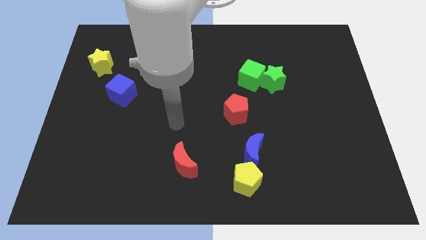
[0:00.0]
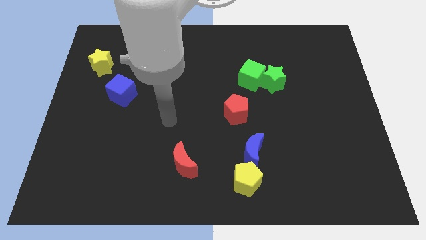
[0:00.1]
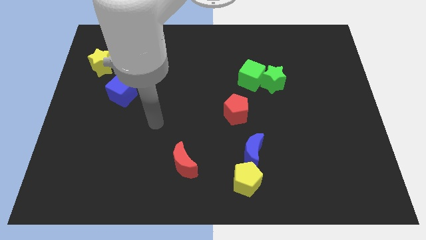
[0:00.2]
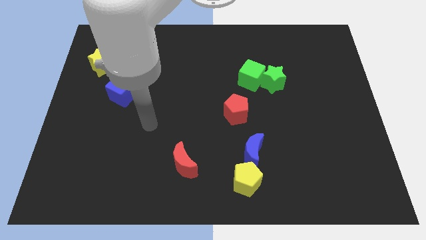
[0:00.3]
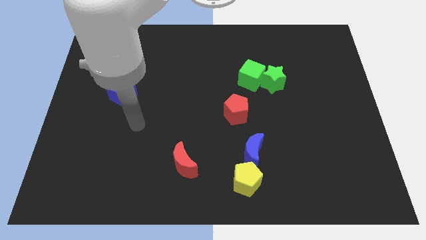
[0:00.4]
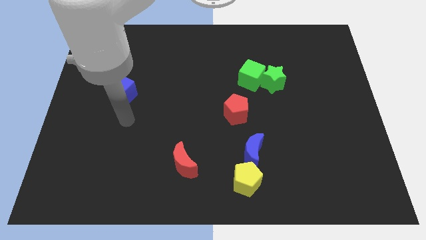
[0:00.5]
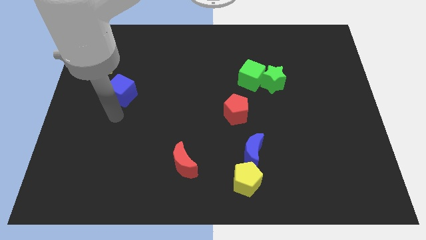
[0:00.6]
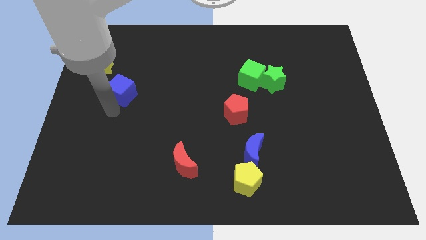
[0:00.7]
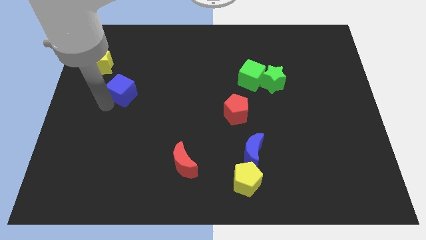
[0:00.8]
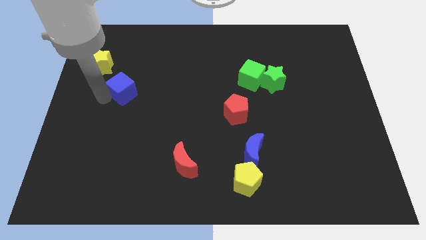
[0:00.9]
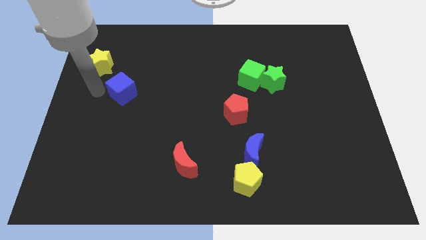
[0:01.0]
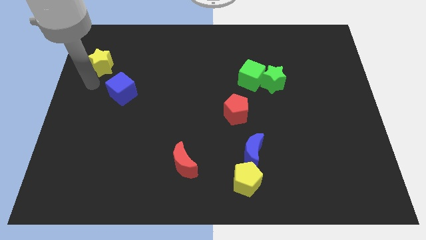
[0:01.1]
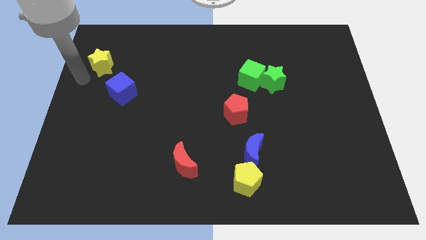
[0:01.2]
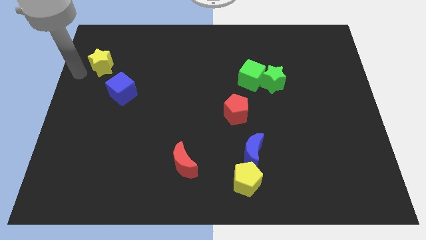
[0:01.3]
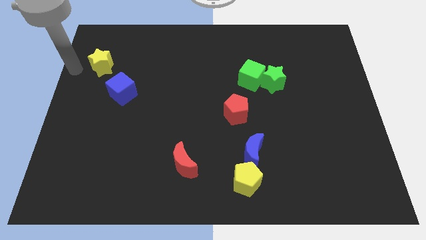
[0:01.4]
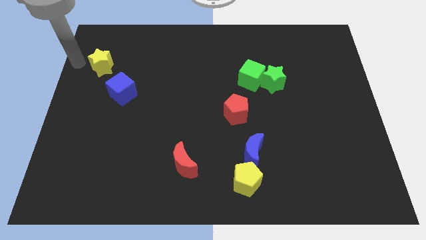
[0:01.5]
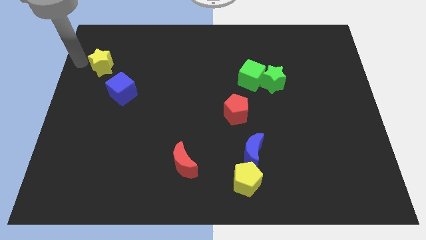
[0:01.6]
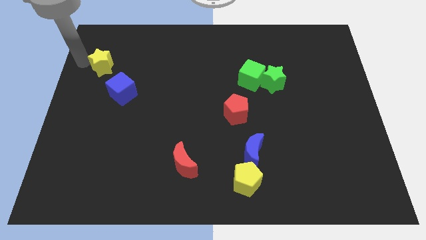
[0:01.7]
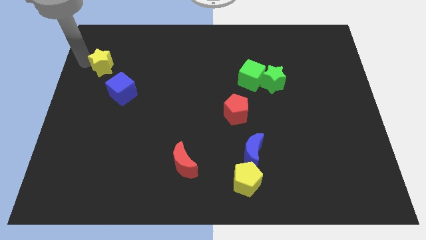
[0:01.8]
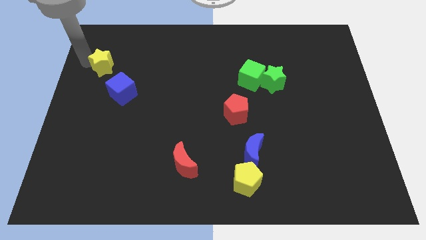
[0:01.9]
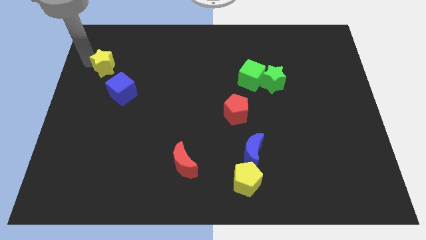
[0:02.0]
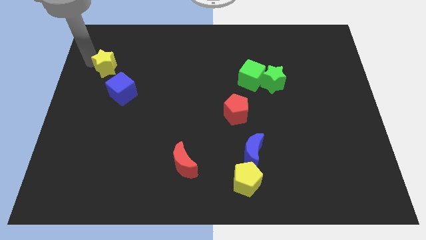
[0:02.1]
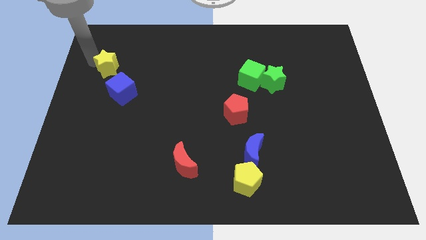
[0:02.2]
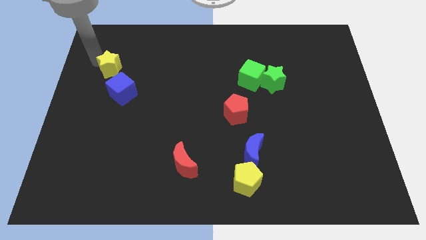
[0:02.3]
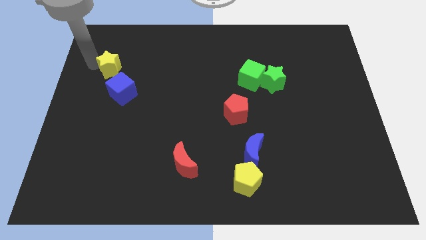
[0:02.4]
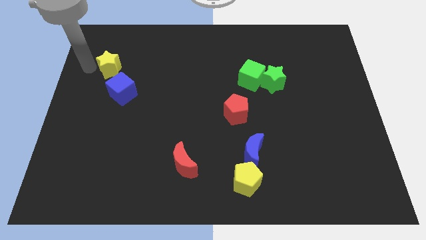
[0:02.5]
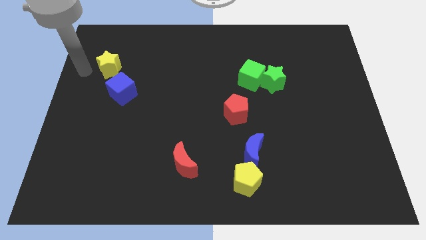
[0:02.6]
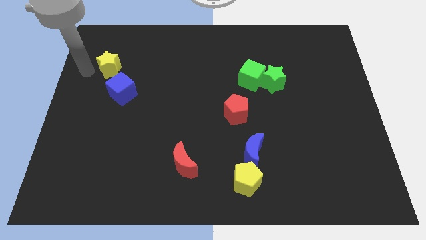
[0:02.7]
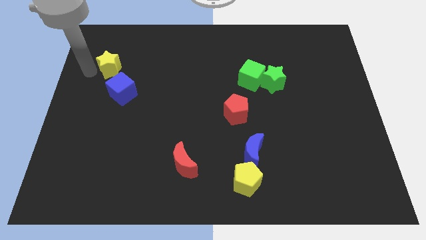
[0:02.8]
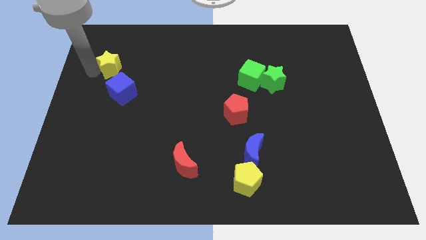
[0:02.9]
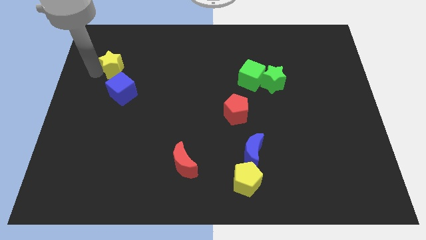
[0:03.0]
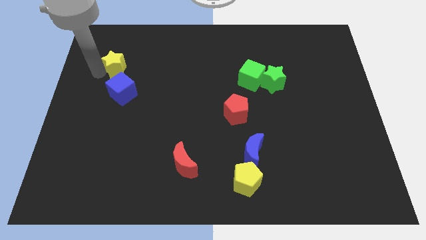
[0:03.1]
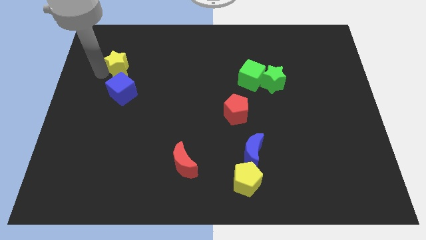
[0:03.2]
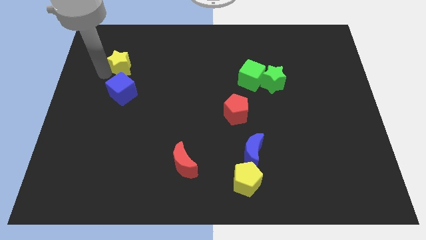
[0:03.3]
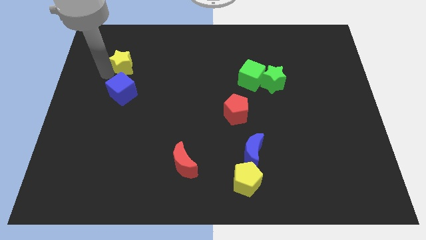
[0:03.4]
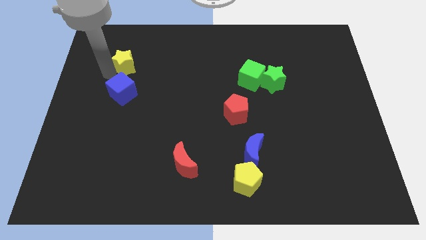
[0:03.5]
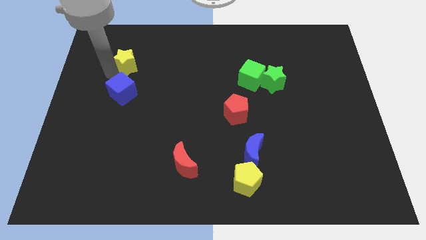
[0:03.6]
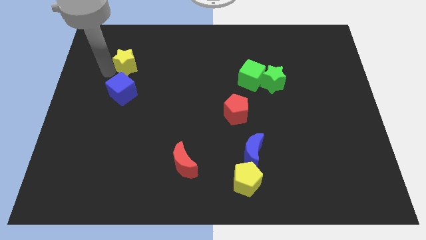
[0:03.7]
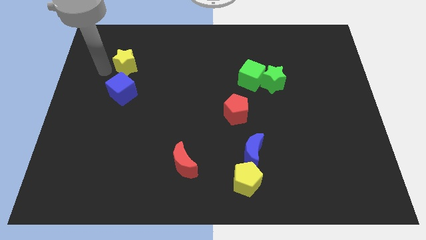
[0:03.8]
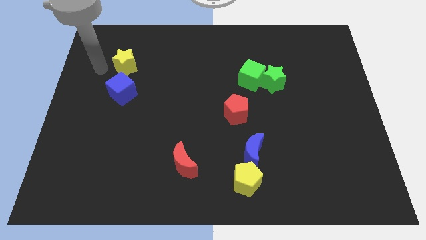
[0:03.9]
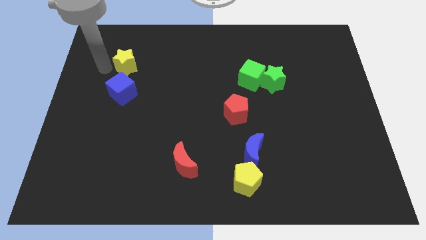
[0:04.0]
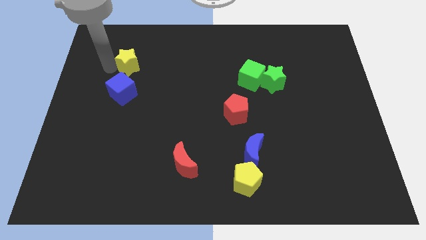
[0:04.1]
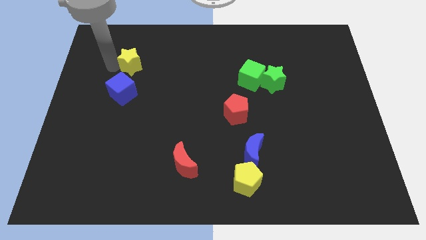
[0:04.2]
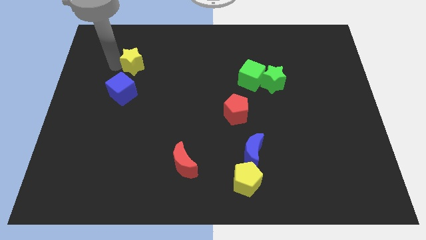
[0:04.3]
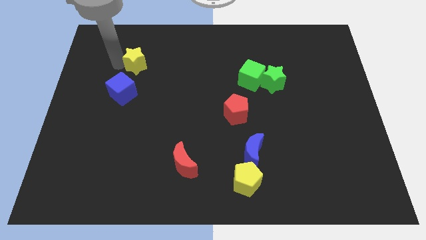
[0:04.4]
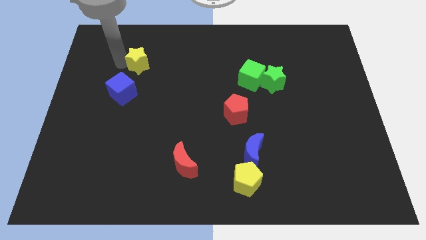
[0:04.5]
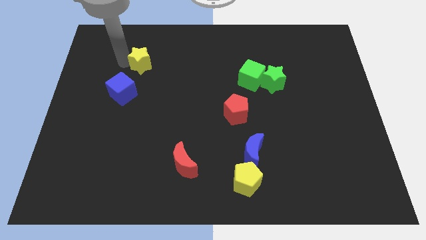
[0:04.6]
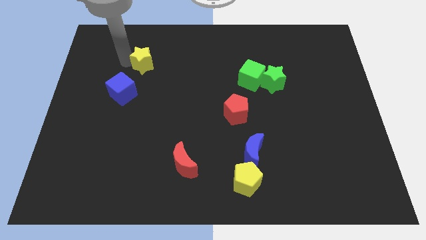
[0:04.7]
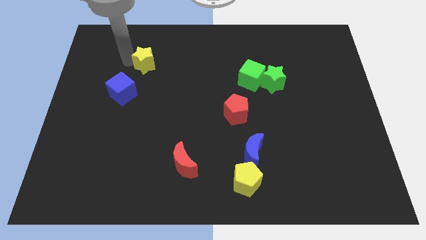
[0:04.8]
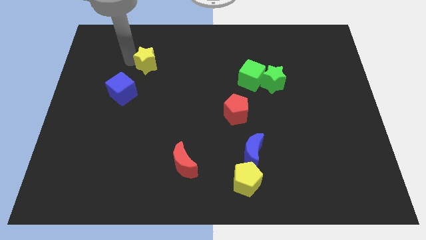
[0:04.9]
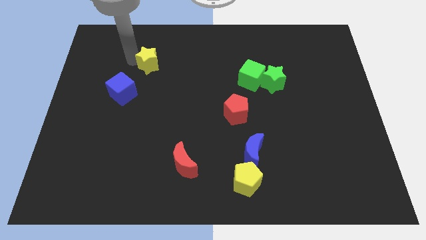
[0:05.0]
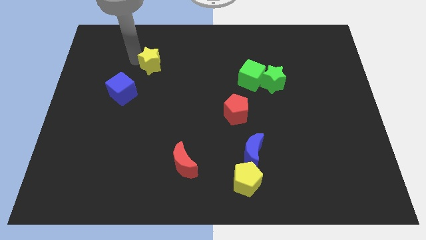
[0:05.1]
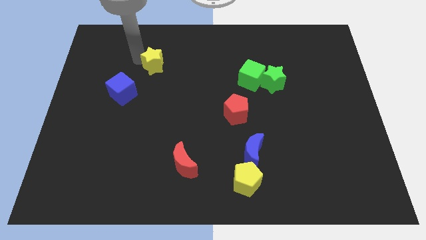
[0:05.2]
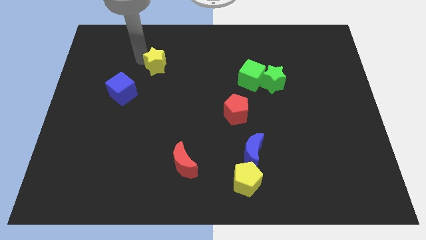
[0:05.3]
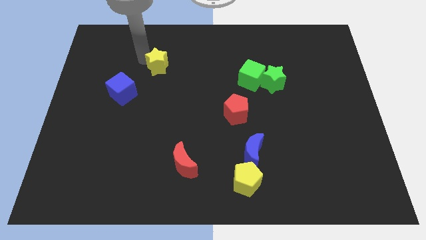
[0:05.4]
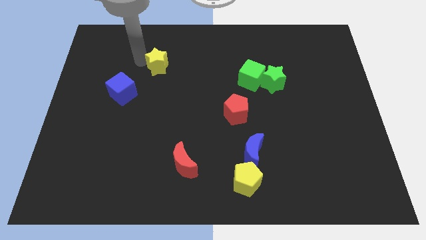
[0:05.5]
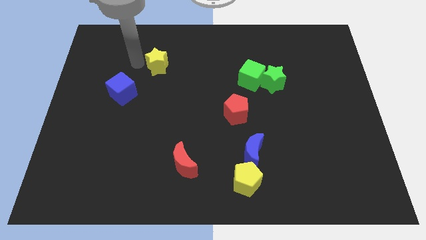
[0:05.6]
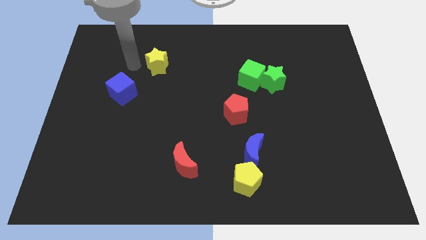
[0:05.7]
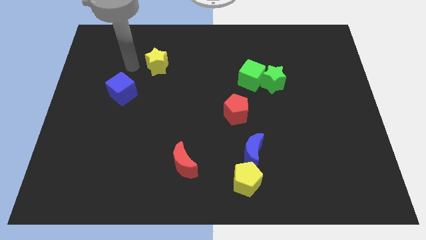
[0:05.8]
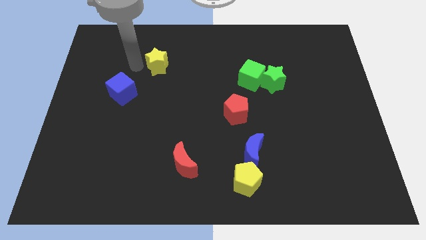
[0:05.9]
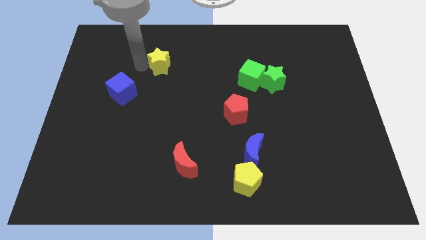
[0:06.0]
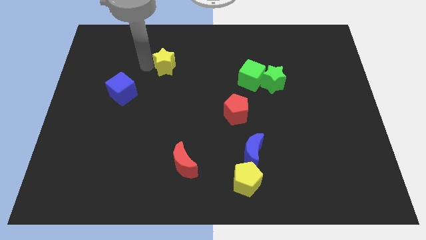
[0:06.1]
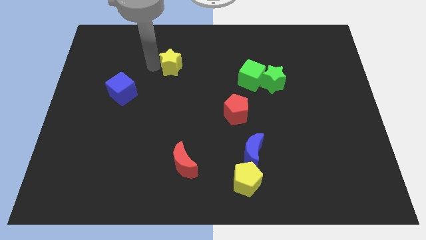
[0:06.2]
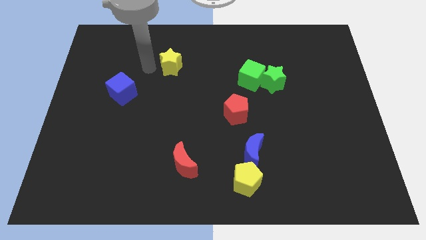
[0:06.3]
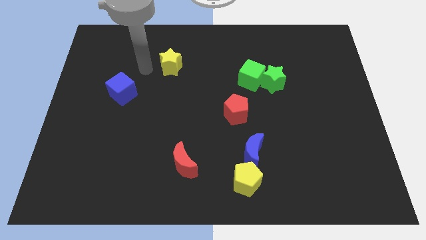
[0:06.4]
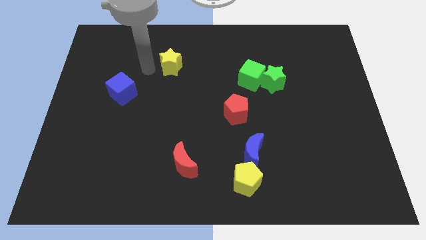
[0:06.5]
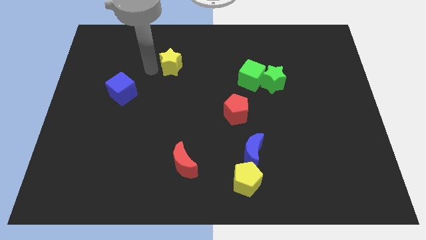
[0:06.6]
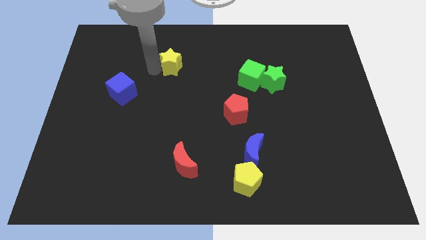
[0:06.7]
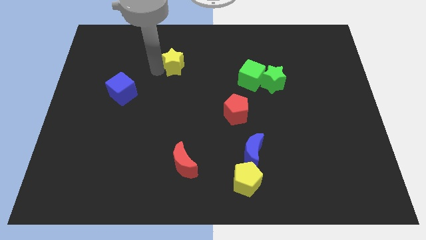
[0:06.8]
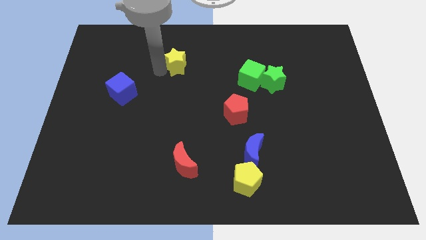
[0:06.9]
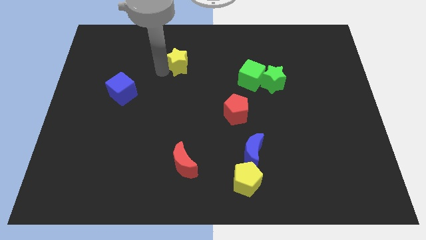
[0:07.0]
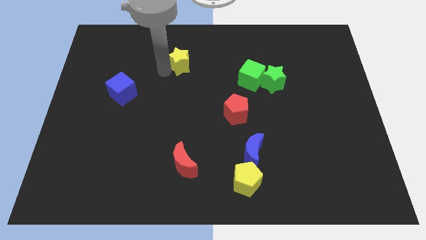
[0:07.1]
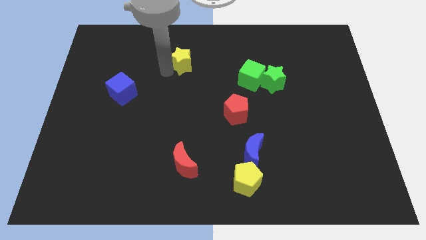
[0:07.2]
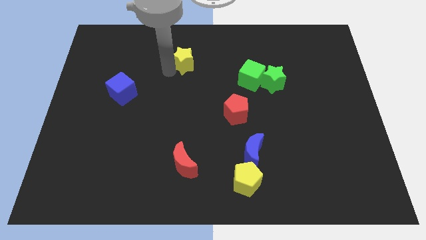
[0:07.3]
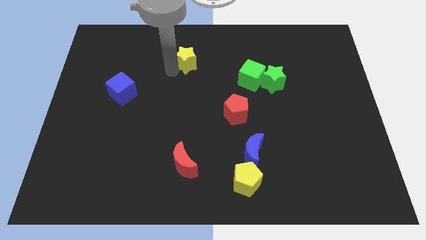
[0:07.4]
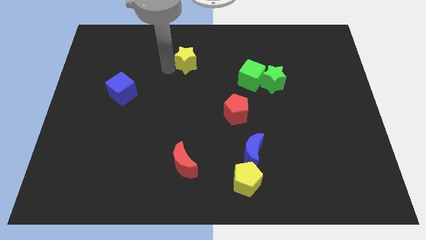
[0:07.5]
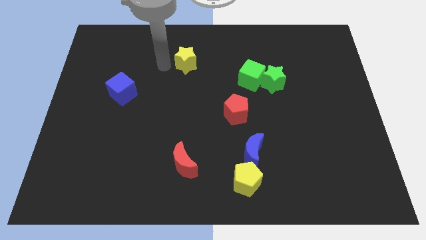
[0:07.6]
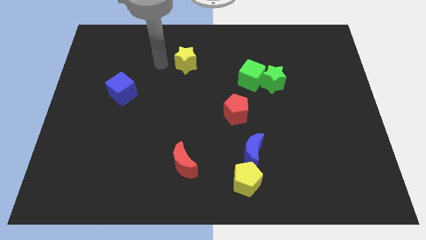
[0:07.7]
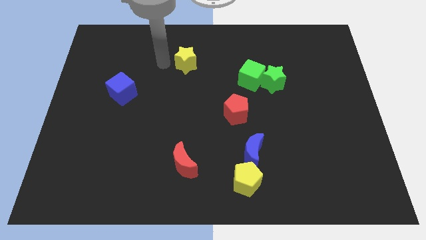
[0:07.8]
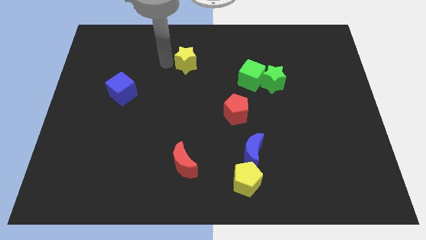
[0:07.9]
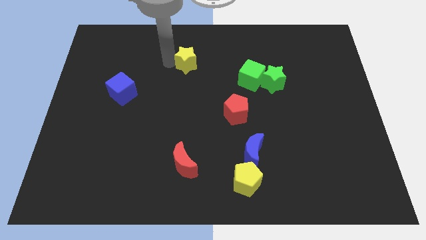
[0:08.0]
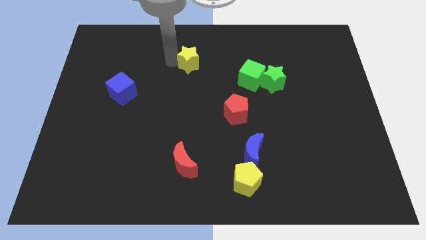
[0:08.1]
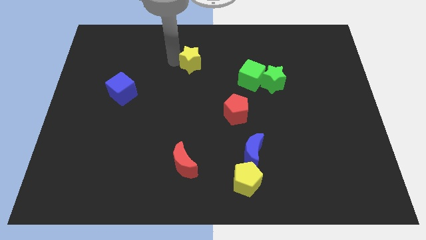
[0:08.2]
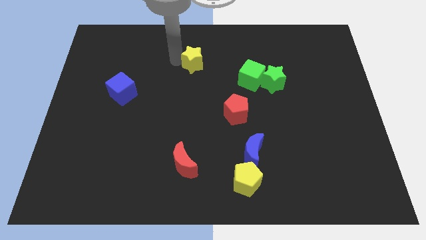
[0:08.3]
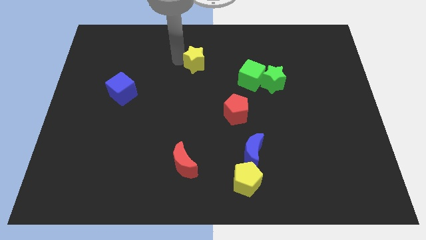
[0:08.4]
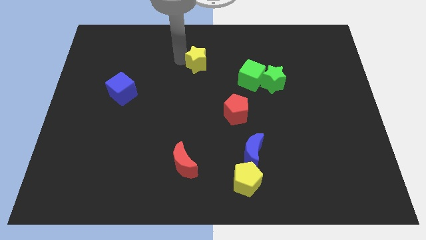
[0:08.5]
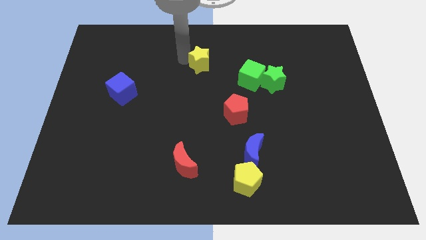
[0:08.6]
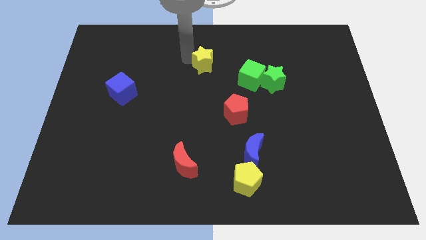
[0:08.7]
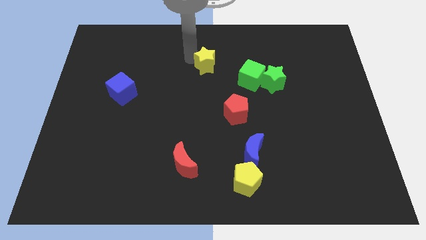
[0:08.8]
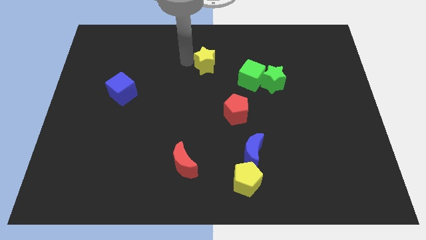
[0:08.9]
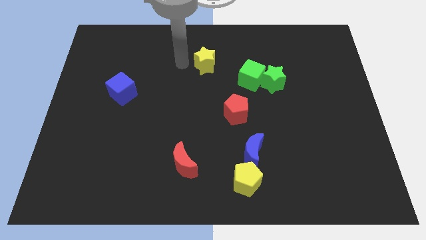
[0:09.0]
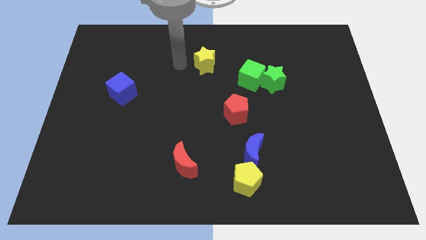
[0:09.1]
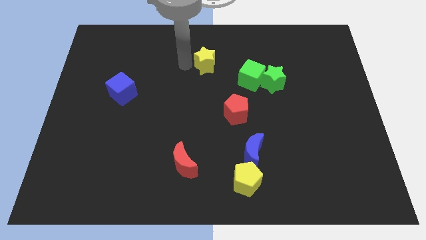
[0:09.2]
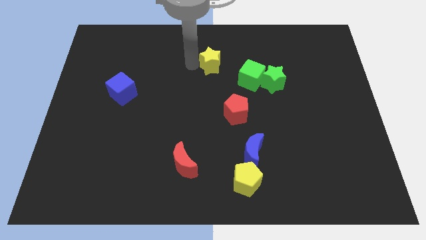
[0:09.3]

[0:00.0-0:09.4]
put the yellow star to the top left of the green cube
